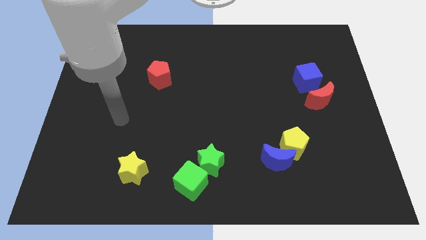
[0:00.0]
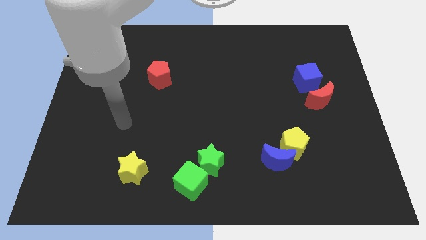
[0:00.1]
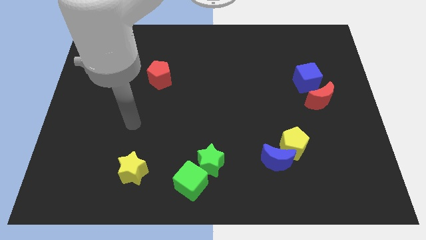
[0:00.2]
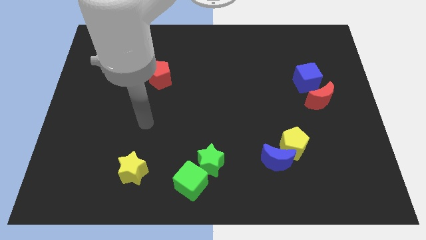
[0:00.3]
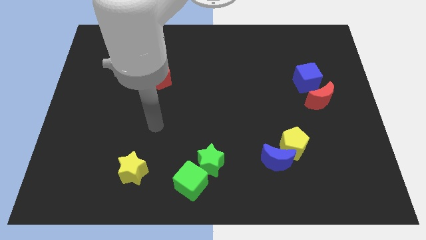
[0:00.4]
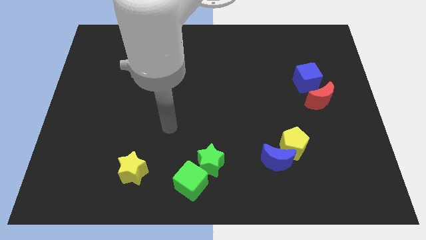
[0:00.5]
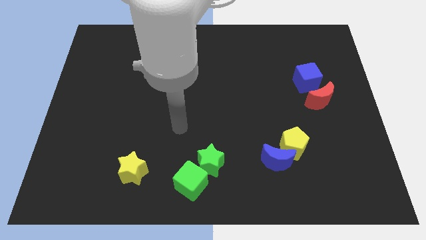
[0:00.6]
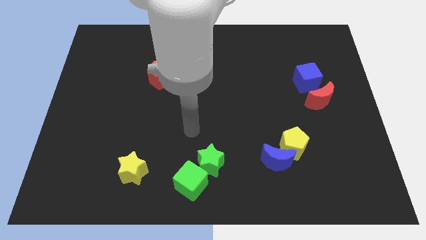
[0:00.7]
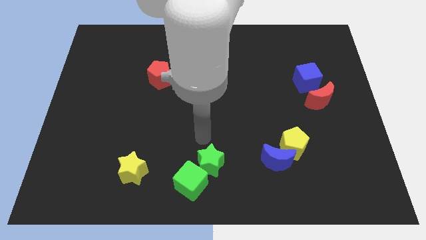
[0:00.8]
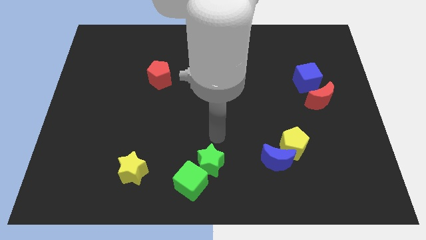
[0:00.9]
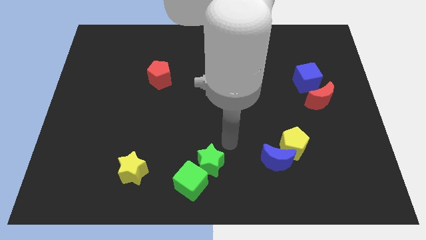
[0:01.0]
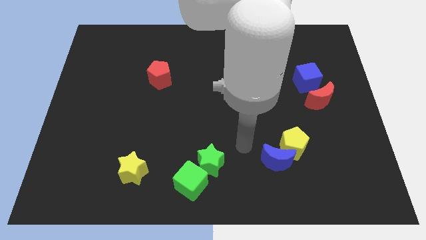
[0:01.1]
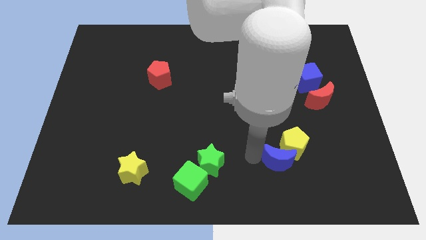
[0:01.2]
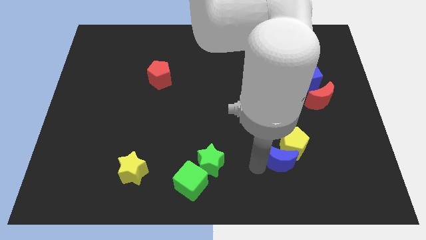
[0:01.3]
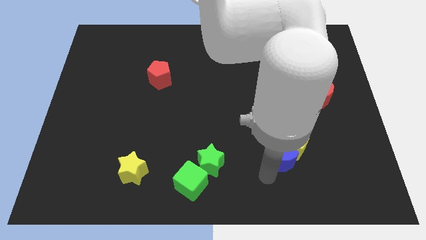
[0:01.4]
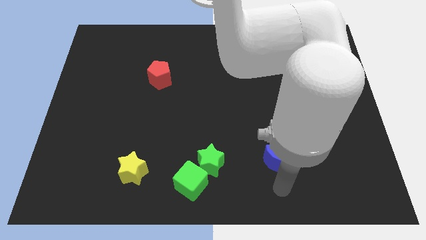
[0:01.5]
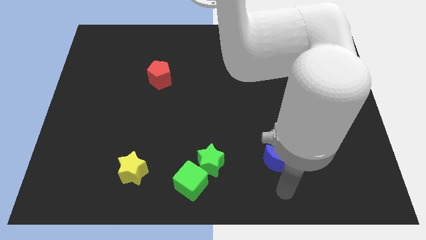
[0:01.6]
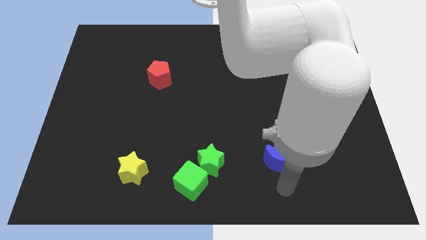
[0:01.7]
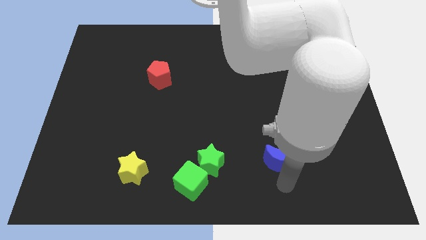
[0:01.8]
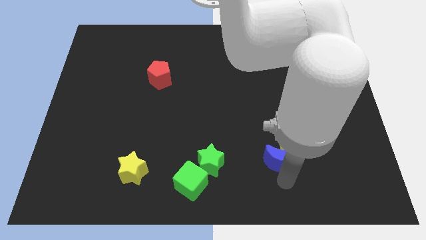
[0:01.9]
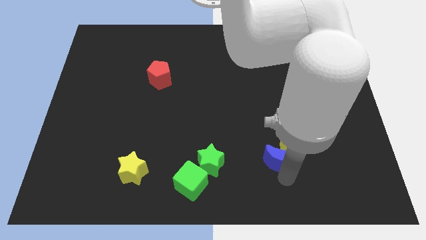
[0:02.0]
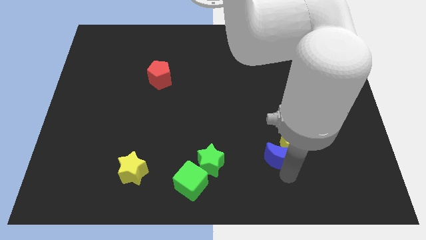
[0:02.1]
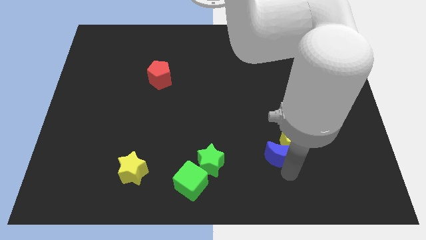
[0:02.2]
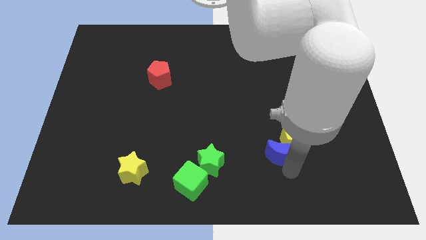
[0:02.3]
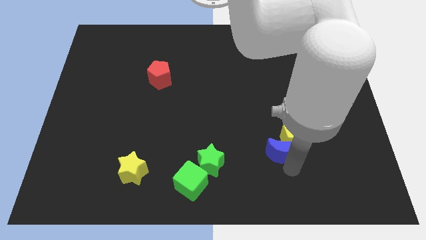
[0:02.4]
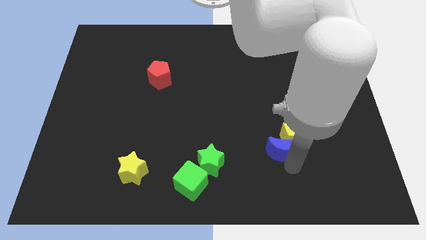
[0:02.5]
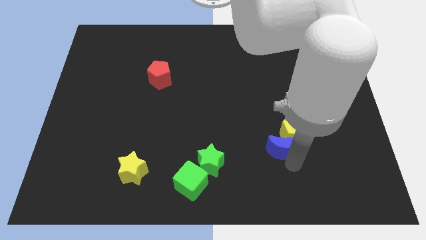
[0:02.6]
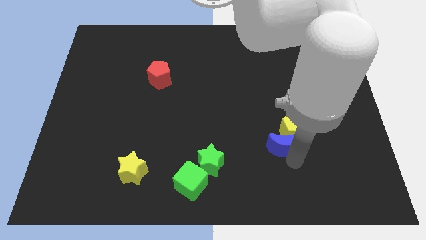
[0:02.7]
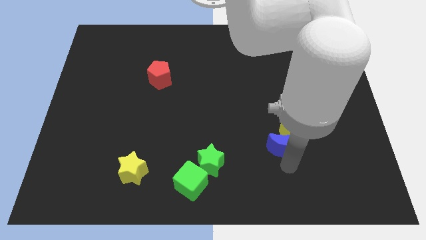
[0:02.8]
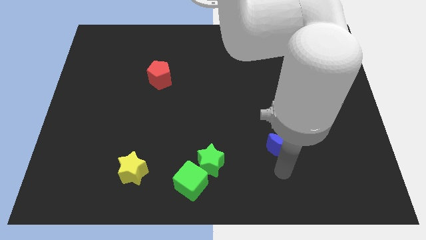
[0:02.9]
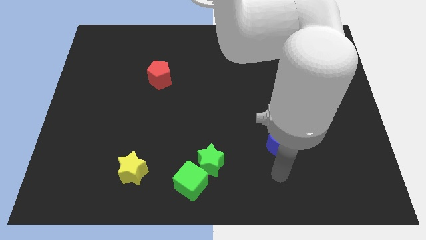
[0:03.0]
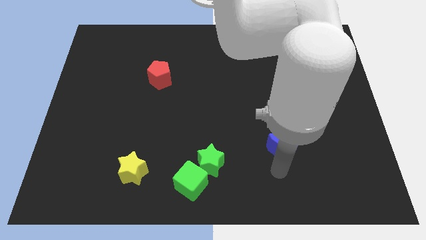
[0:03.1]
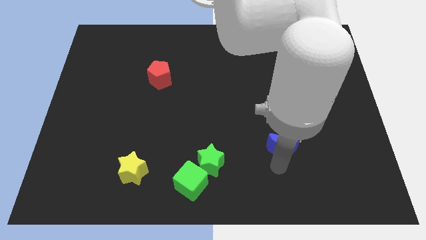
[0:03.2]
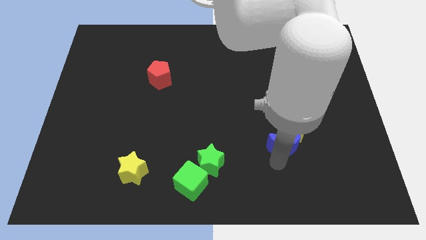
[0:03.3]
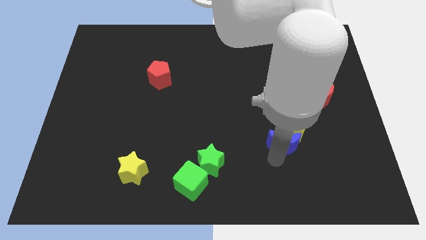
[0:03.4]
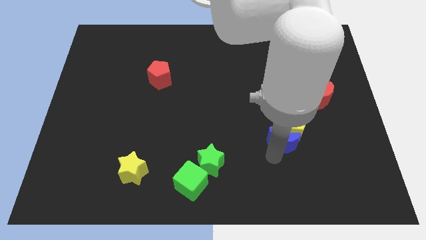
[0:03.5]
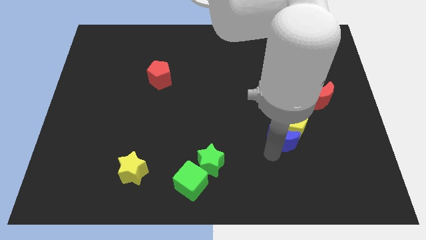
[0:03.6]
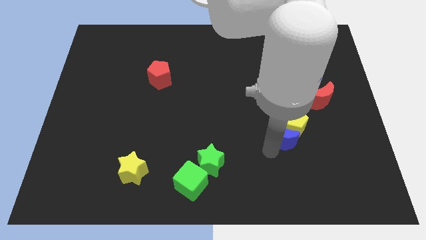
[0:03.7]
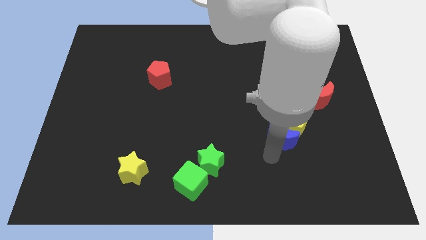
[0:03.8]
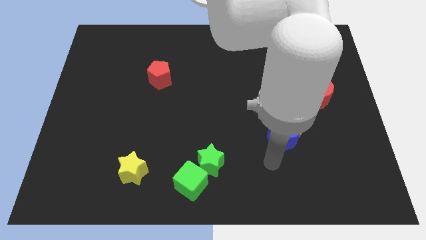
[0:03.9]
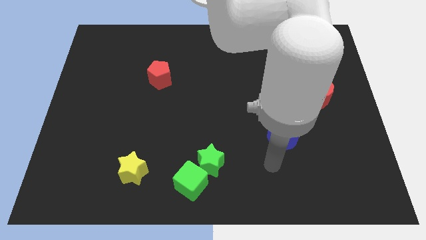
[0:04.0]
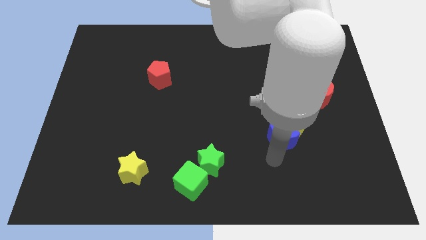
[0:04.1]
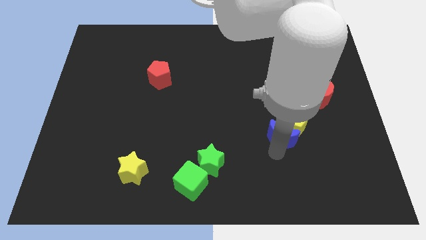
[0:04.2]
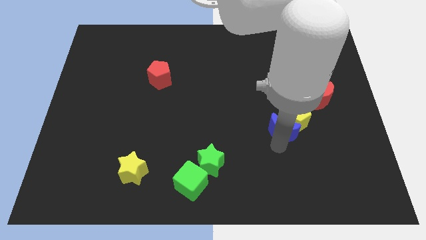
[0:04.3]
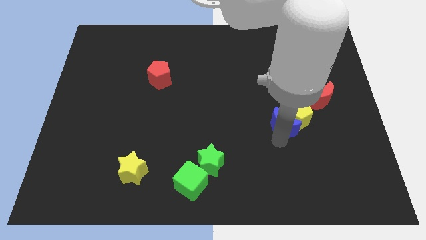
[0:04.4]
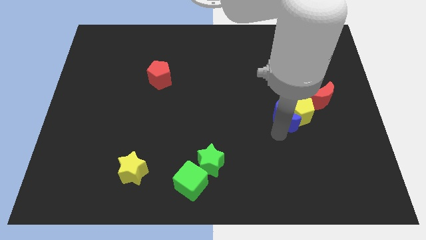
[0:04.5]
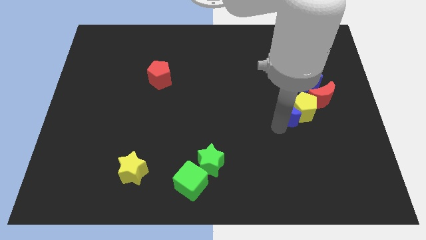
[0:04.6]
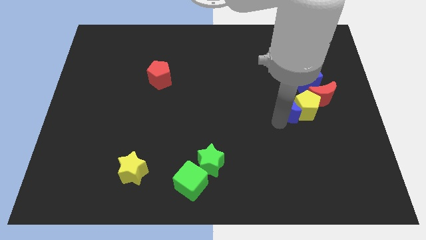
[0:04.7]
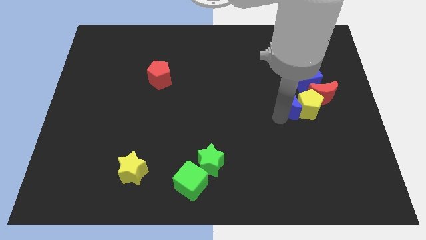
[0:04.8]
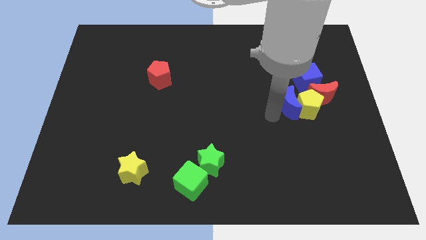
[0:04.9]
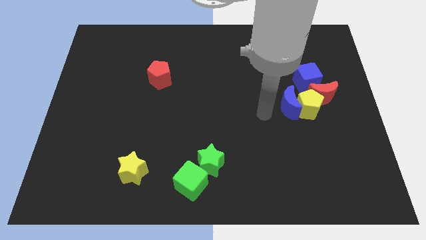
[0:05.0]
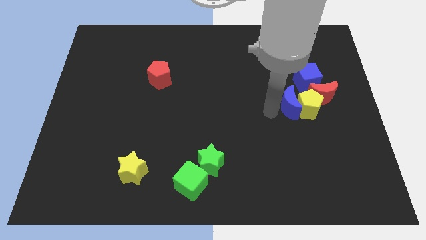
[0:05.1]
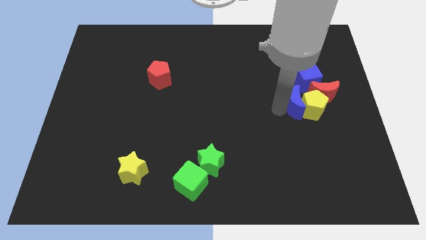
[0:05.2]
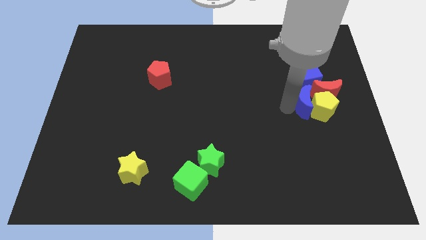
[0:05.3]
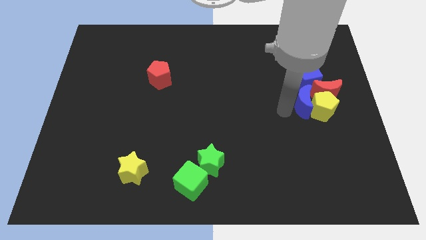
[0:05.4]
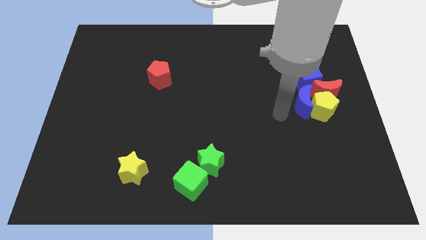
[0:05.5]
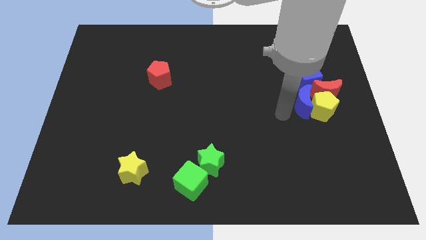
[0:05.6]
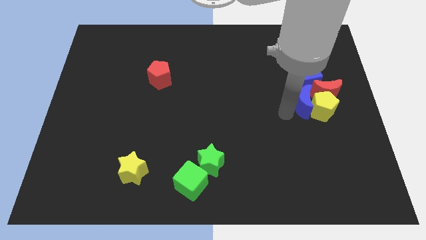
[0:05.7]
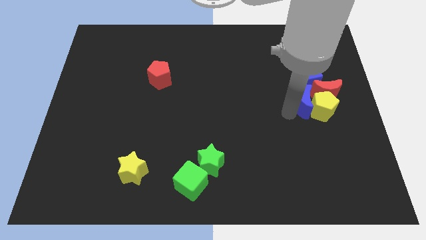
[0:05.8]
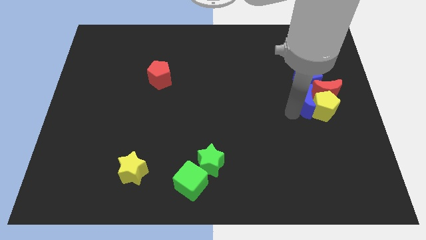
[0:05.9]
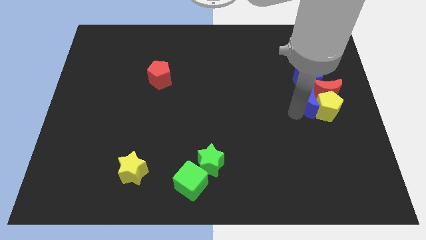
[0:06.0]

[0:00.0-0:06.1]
put the blue moon next to the red moon

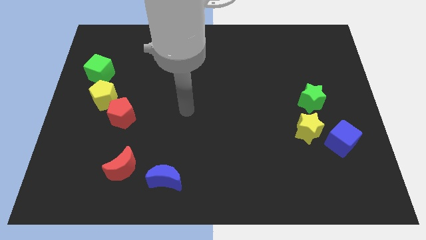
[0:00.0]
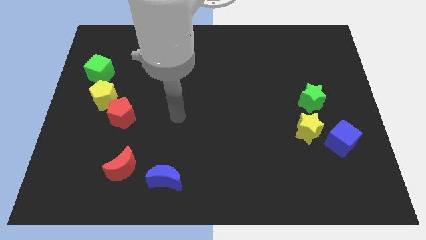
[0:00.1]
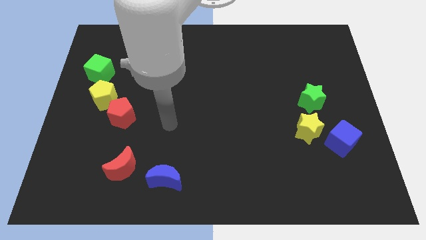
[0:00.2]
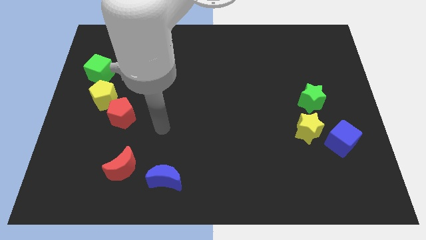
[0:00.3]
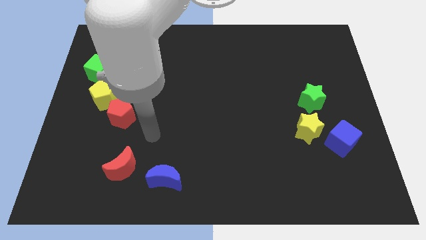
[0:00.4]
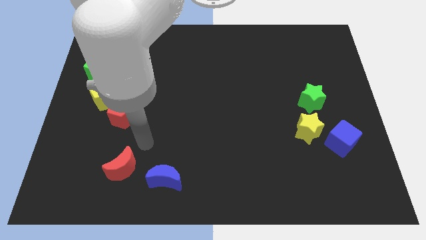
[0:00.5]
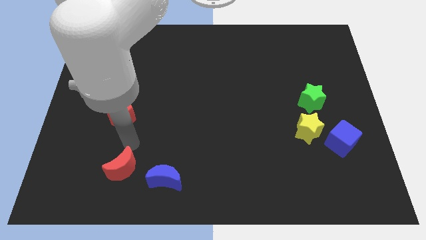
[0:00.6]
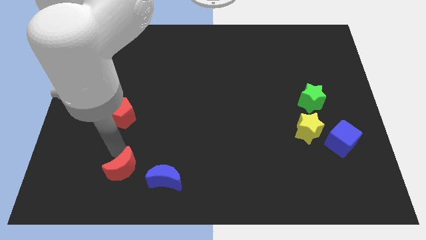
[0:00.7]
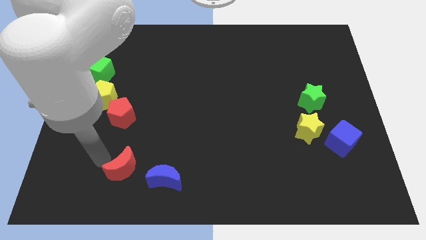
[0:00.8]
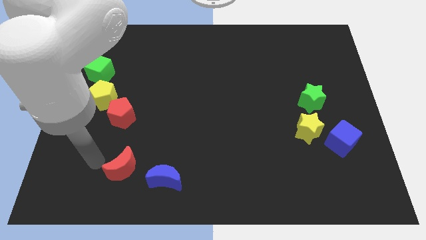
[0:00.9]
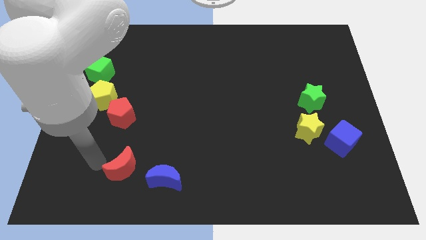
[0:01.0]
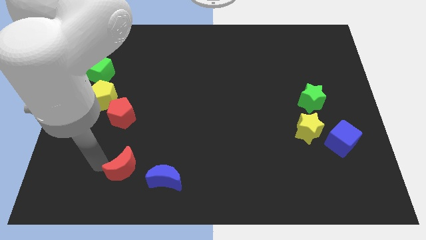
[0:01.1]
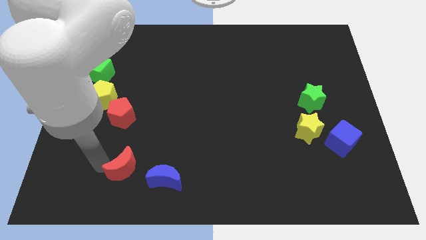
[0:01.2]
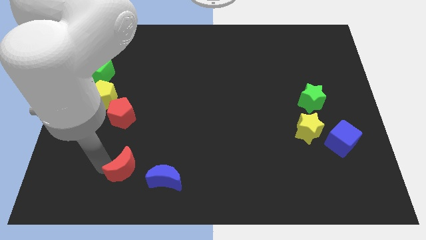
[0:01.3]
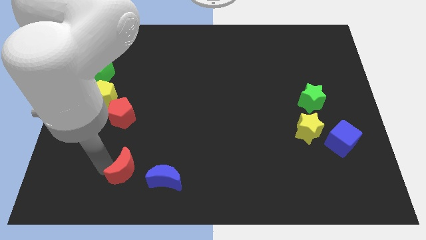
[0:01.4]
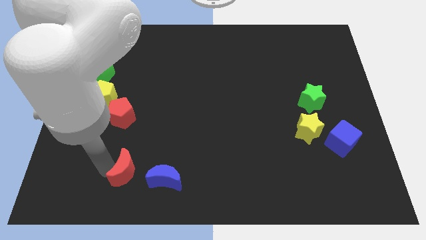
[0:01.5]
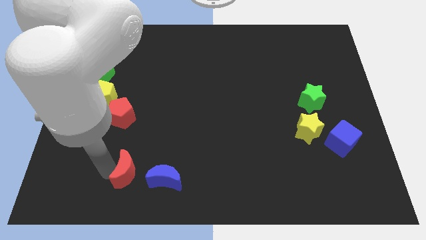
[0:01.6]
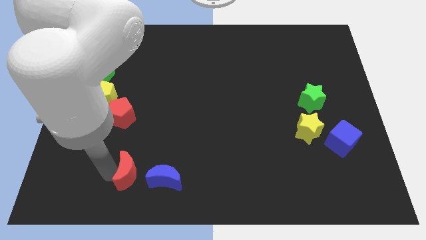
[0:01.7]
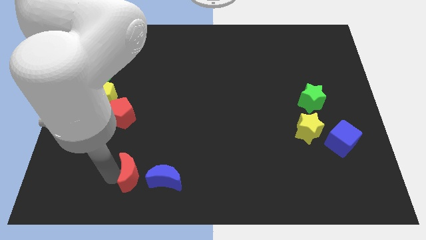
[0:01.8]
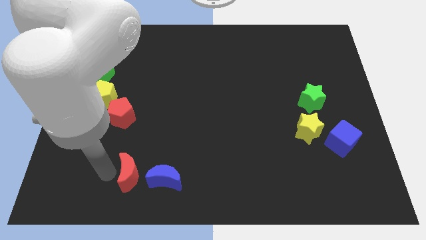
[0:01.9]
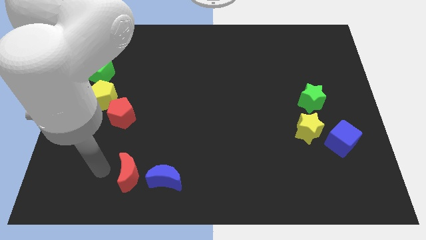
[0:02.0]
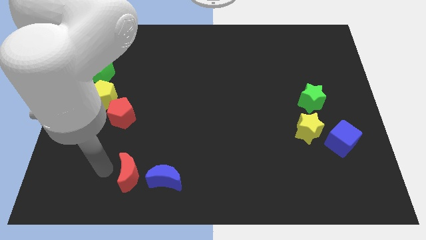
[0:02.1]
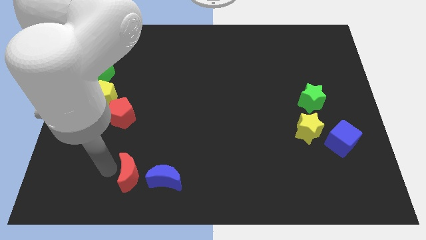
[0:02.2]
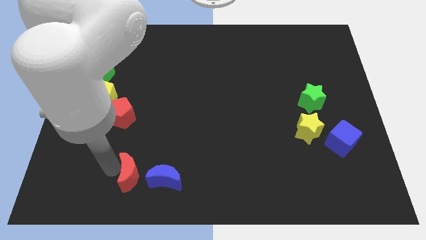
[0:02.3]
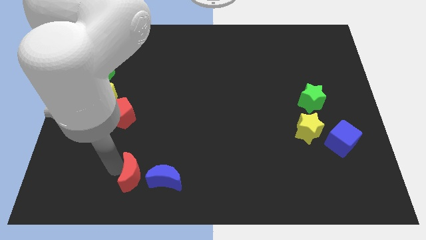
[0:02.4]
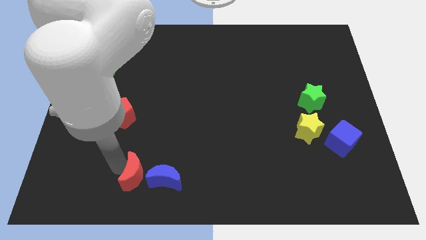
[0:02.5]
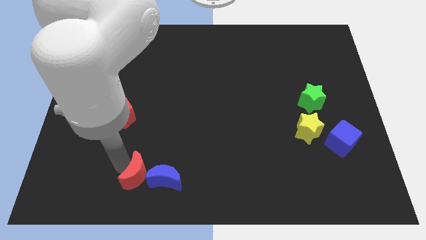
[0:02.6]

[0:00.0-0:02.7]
move the red moon to the blue moon
